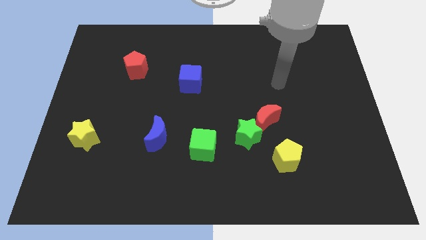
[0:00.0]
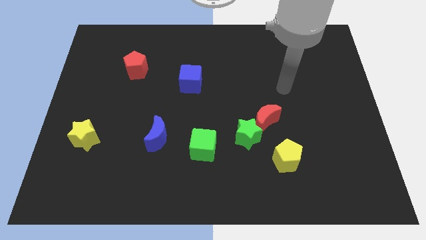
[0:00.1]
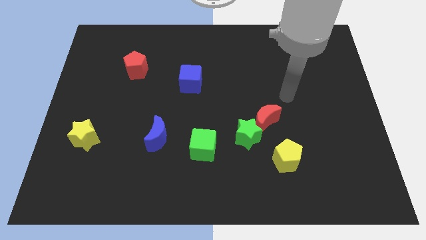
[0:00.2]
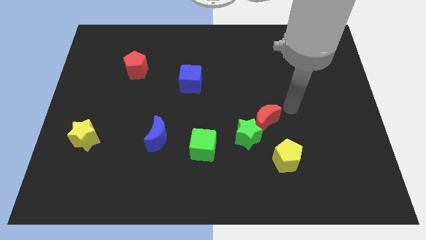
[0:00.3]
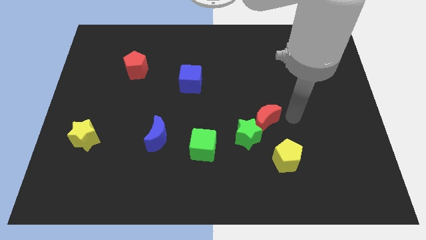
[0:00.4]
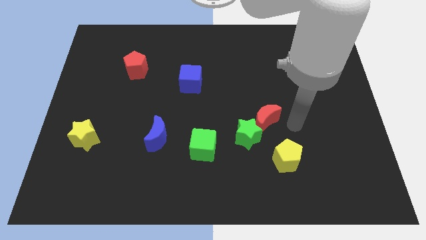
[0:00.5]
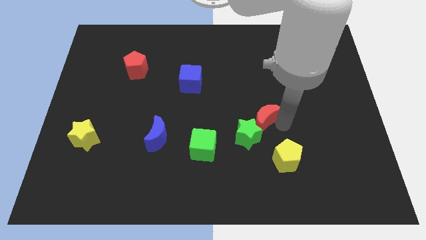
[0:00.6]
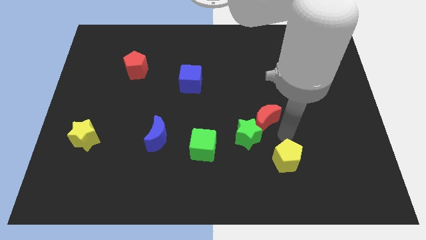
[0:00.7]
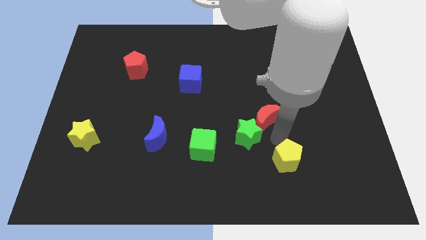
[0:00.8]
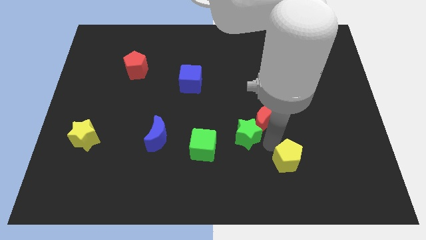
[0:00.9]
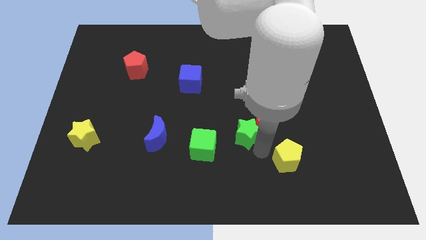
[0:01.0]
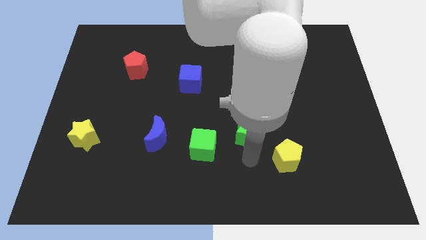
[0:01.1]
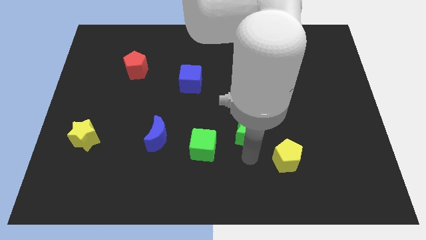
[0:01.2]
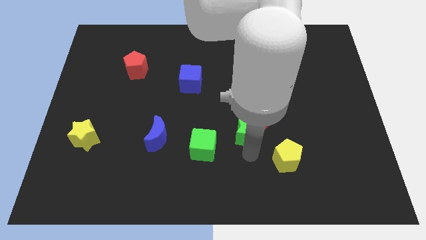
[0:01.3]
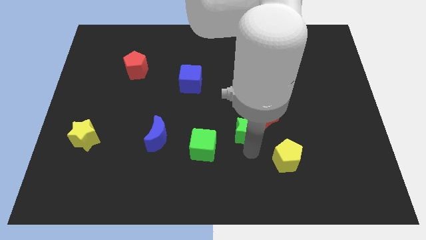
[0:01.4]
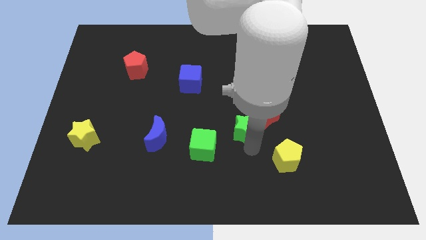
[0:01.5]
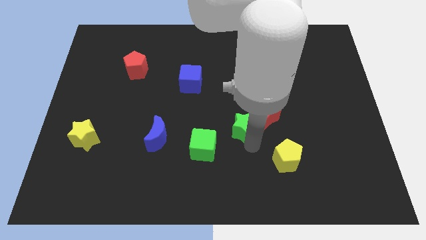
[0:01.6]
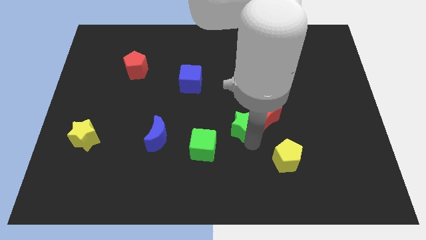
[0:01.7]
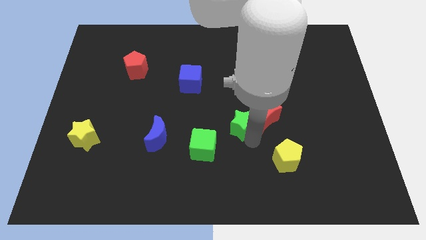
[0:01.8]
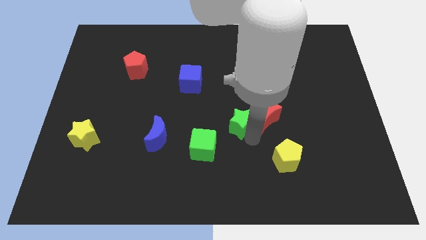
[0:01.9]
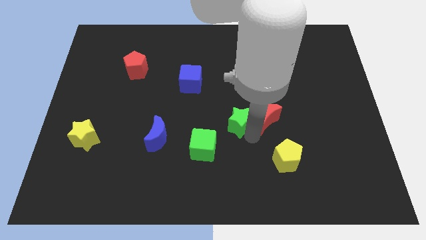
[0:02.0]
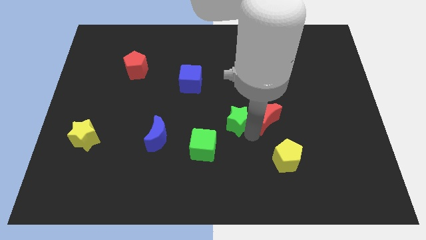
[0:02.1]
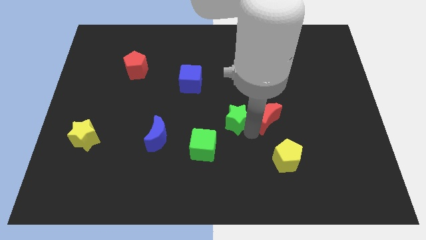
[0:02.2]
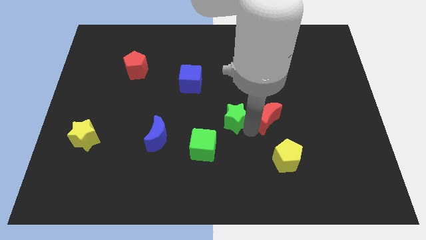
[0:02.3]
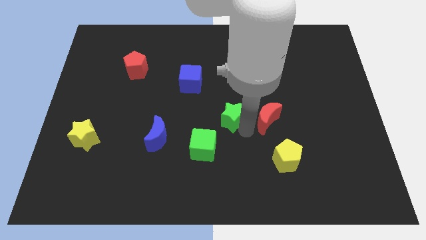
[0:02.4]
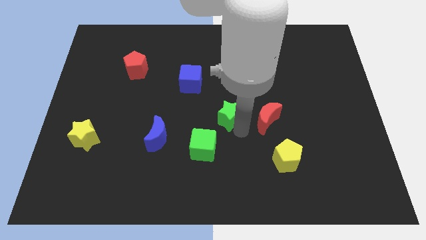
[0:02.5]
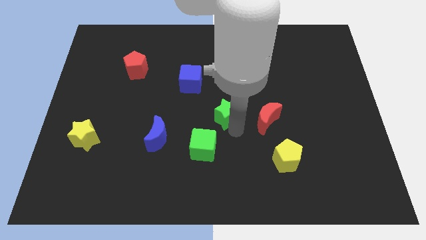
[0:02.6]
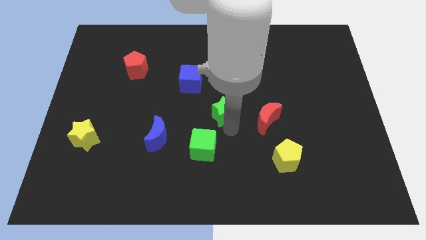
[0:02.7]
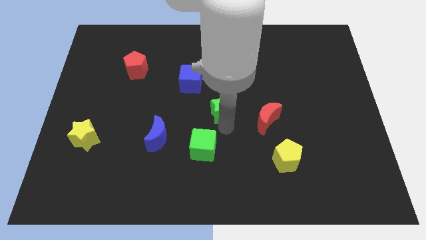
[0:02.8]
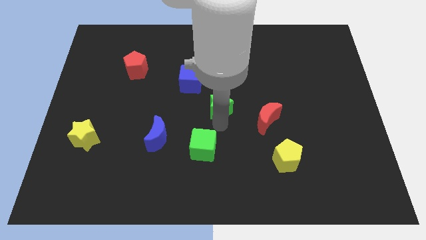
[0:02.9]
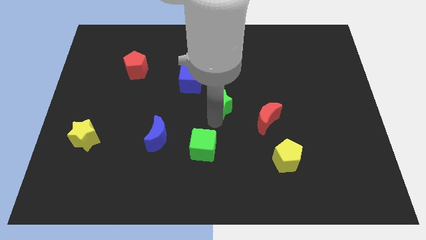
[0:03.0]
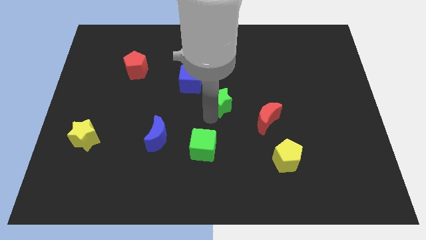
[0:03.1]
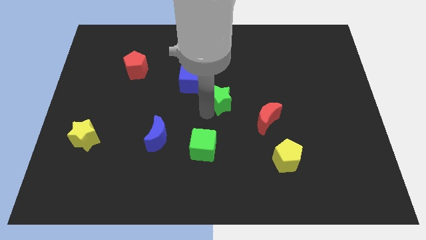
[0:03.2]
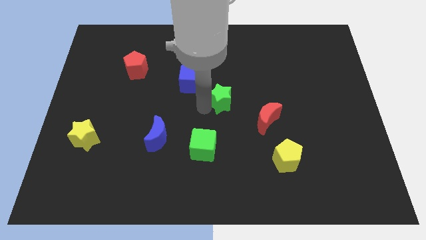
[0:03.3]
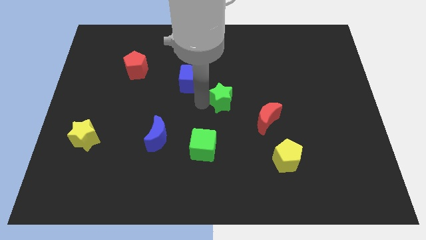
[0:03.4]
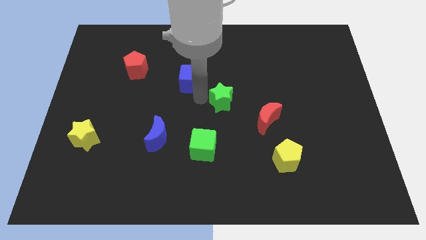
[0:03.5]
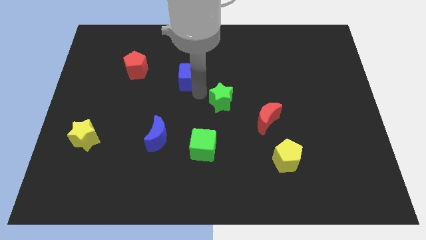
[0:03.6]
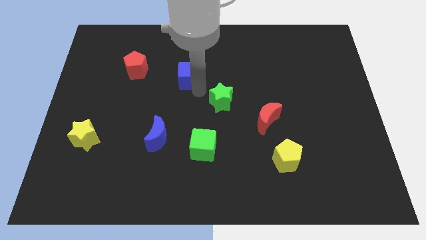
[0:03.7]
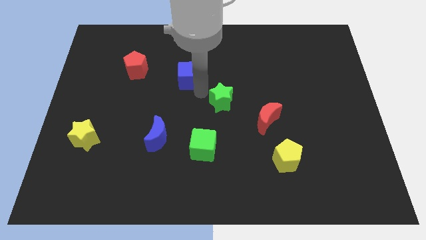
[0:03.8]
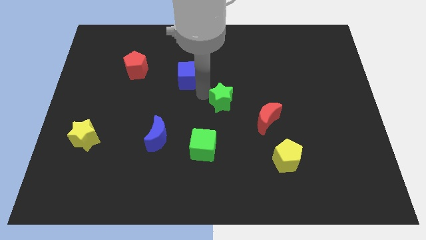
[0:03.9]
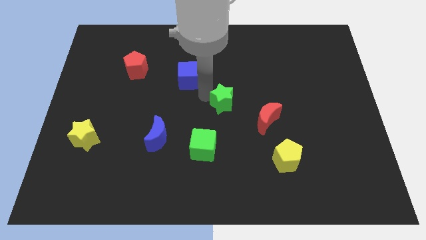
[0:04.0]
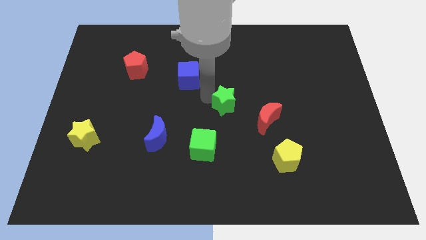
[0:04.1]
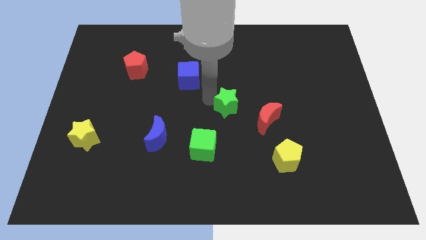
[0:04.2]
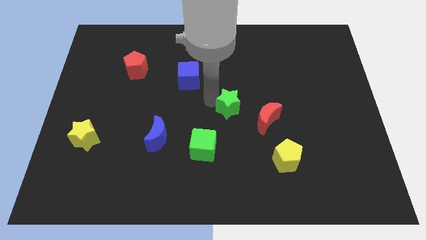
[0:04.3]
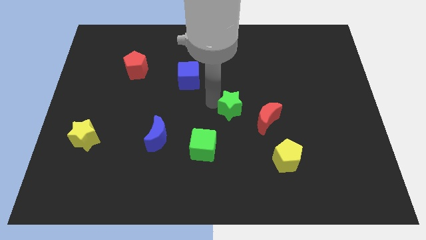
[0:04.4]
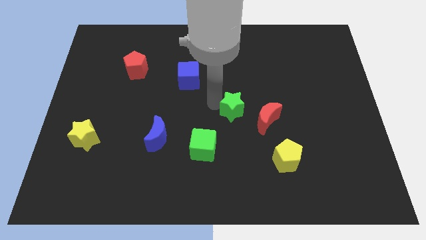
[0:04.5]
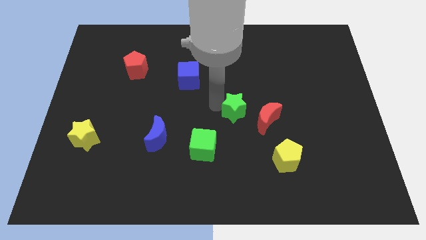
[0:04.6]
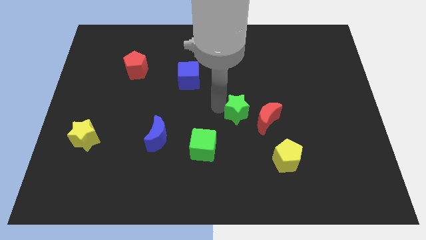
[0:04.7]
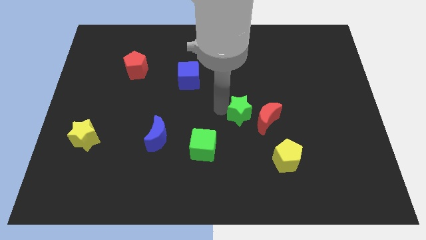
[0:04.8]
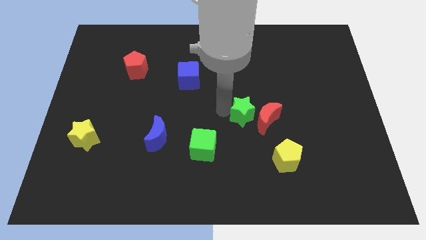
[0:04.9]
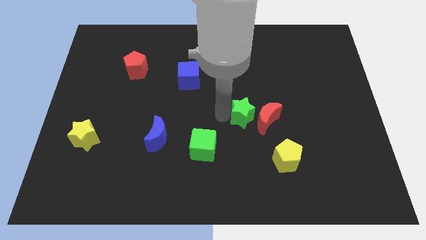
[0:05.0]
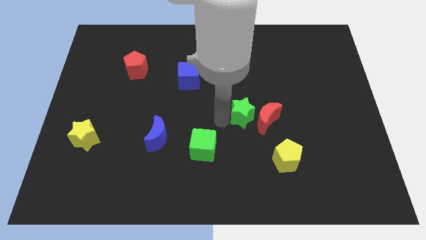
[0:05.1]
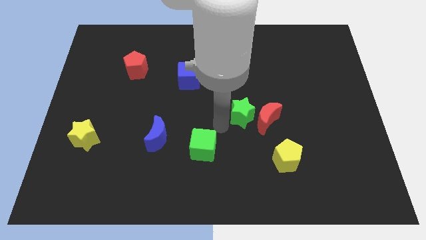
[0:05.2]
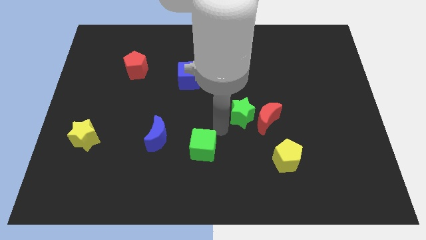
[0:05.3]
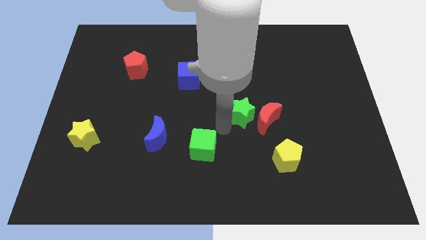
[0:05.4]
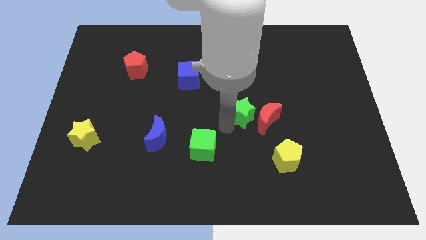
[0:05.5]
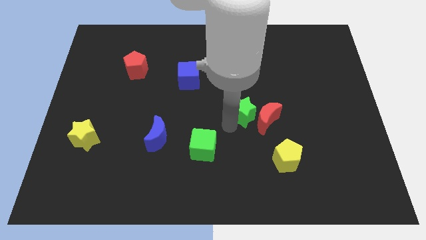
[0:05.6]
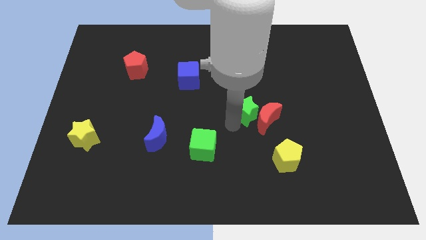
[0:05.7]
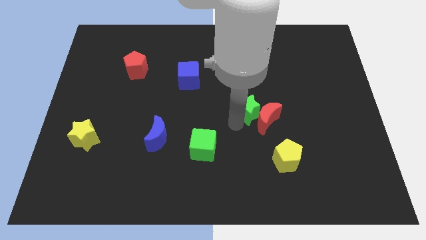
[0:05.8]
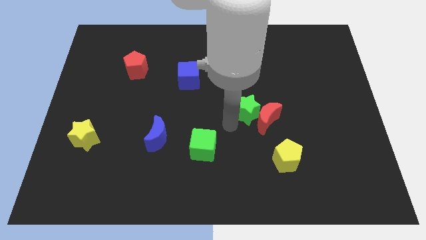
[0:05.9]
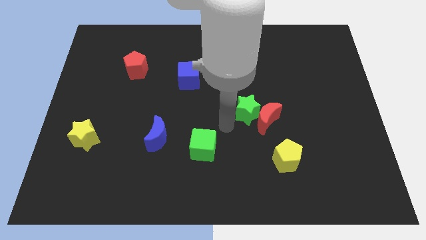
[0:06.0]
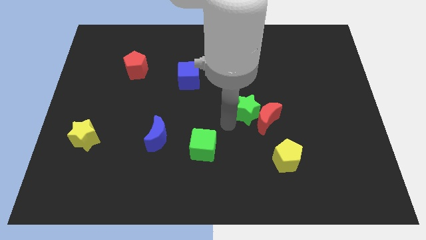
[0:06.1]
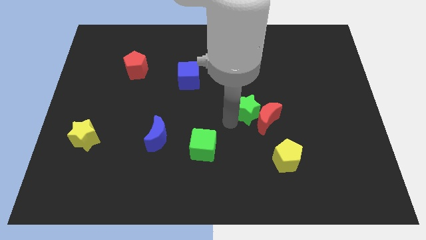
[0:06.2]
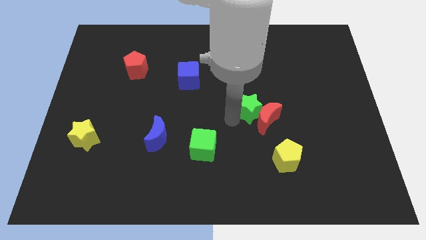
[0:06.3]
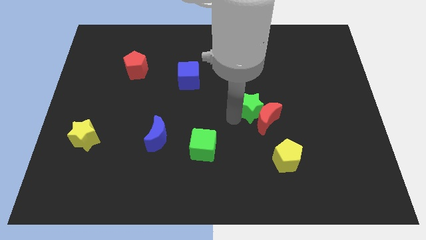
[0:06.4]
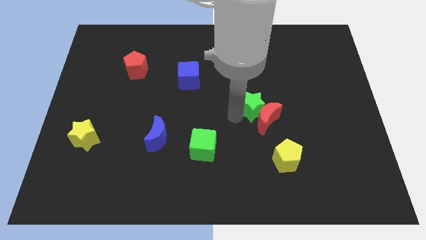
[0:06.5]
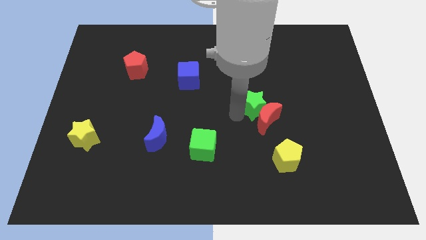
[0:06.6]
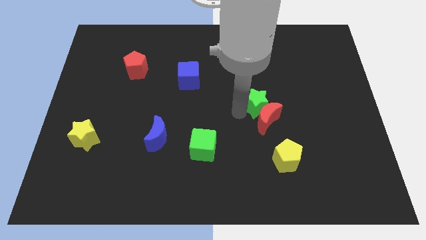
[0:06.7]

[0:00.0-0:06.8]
push the green star upwards and right a bit

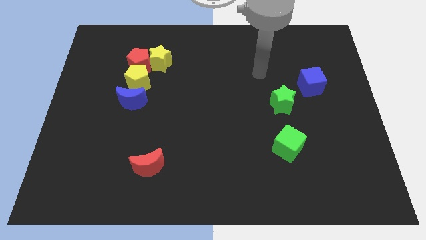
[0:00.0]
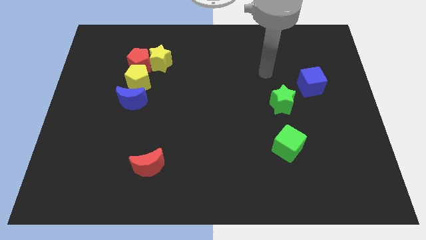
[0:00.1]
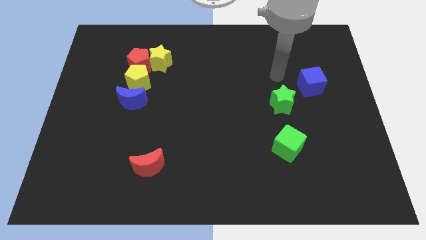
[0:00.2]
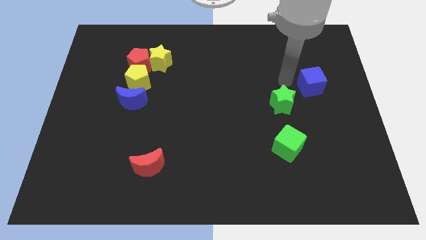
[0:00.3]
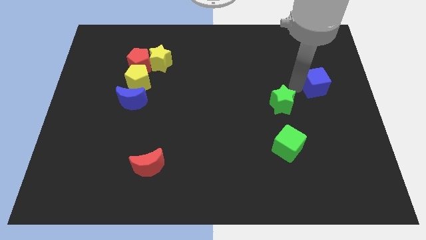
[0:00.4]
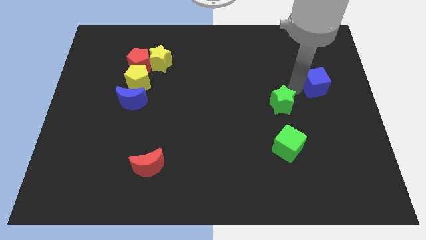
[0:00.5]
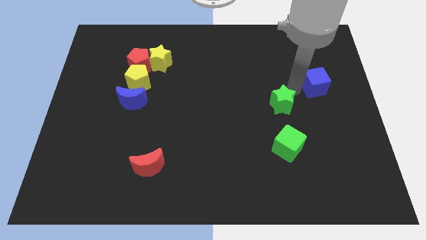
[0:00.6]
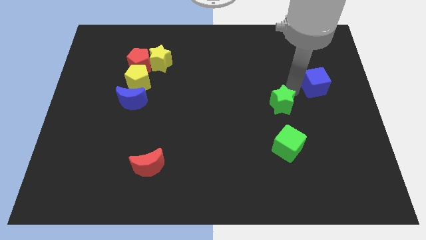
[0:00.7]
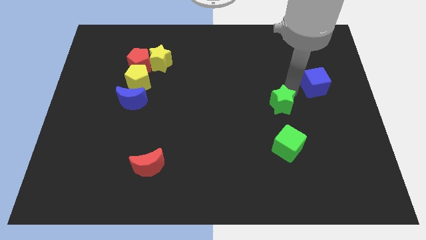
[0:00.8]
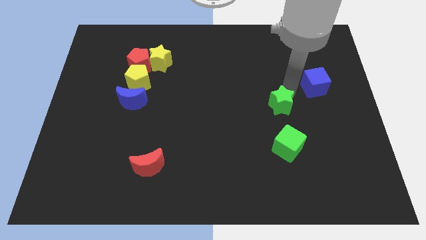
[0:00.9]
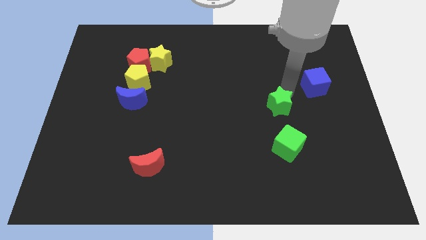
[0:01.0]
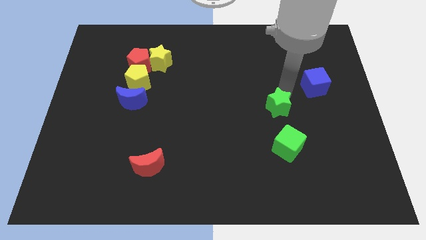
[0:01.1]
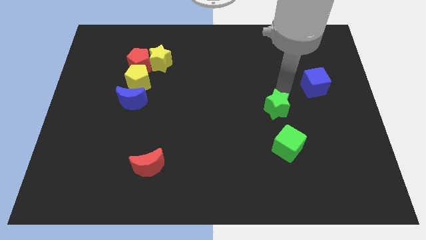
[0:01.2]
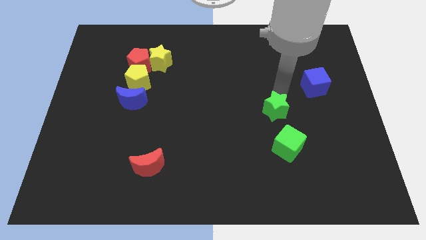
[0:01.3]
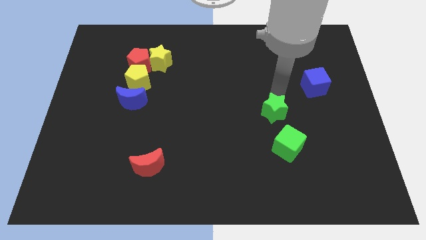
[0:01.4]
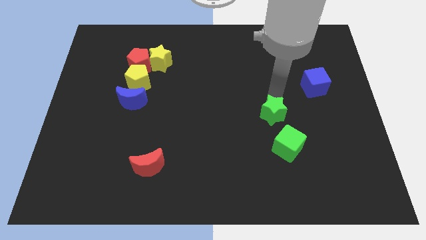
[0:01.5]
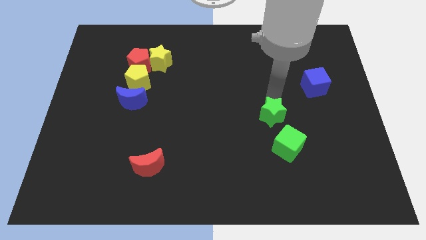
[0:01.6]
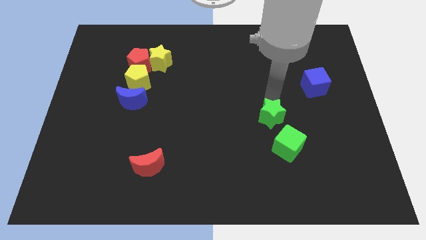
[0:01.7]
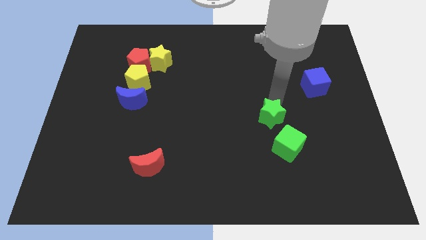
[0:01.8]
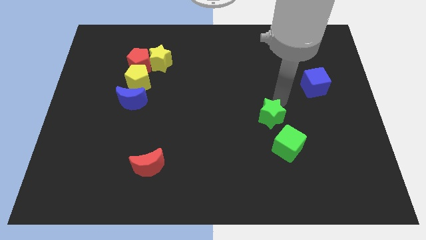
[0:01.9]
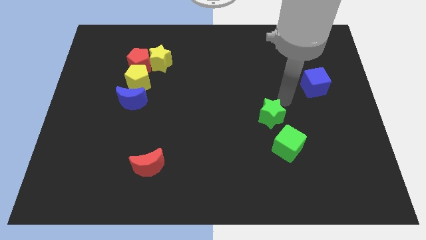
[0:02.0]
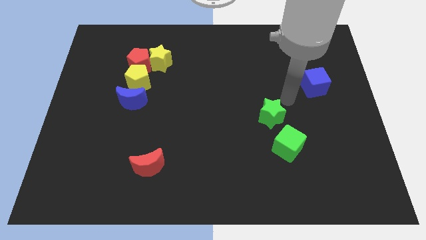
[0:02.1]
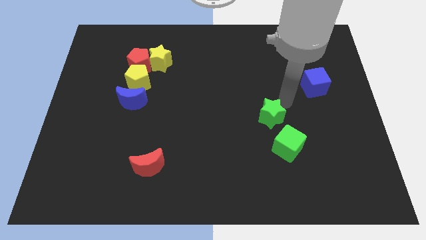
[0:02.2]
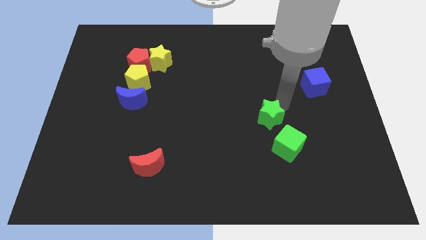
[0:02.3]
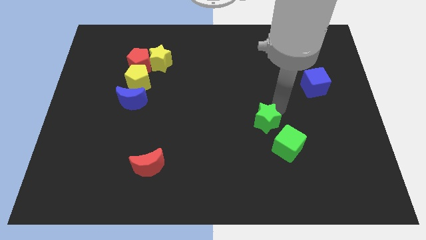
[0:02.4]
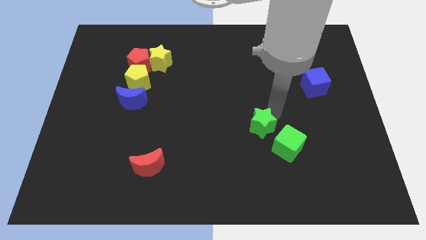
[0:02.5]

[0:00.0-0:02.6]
slightly slide the green star downwards and to the left
